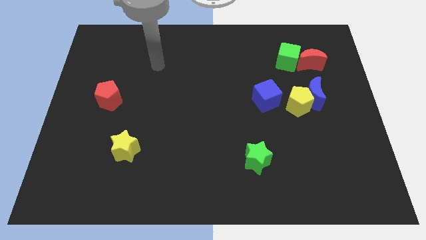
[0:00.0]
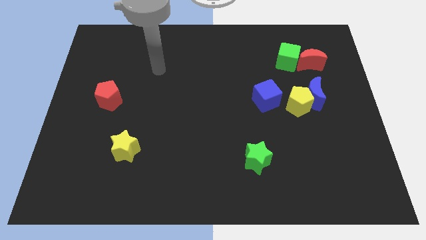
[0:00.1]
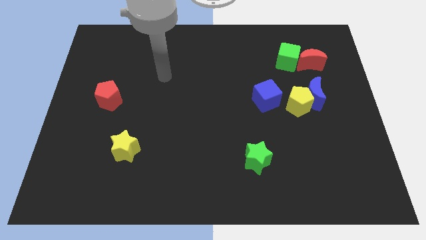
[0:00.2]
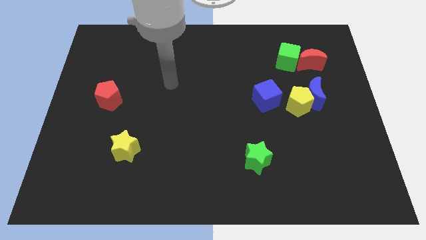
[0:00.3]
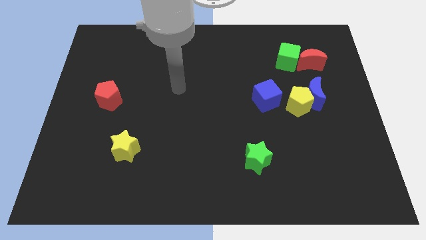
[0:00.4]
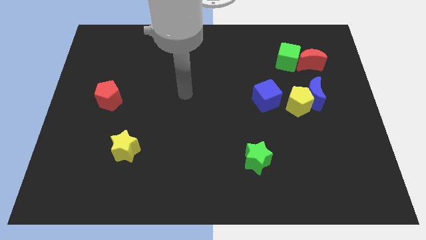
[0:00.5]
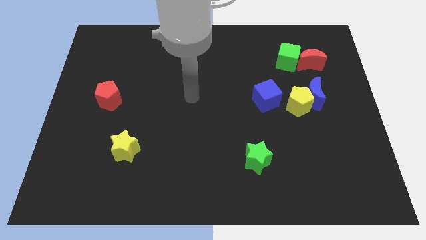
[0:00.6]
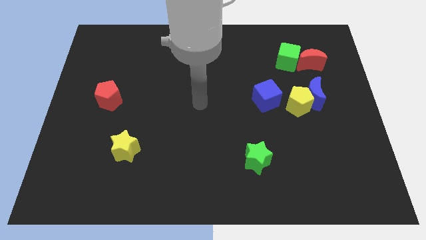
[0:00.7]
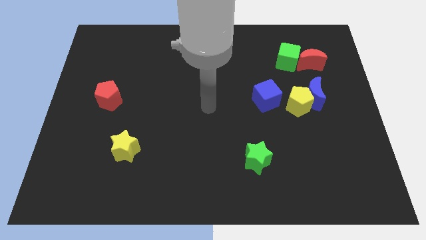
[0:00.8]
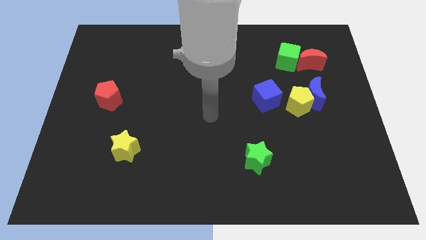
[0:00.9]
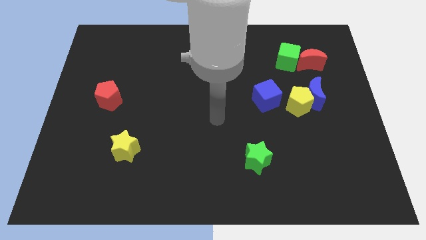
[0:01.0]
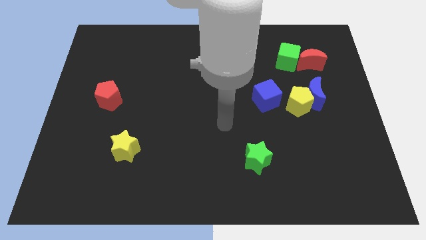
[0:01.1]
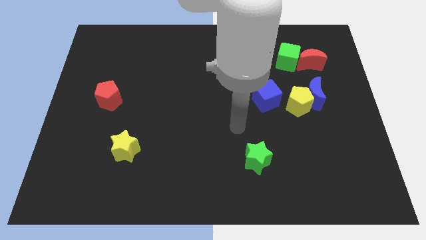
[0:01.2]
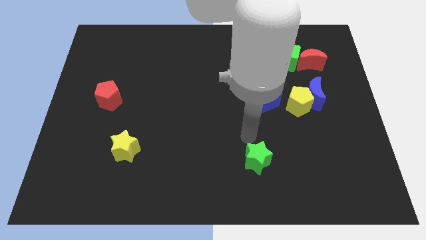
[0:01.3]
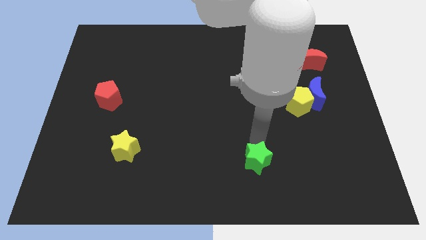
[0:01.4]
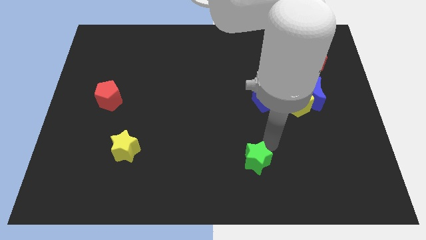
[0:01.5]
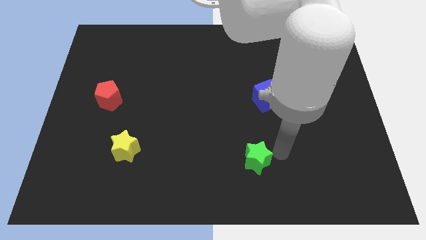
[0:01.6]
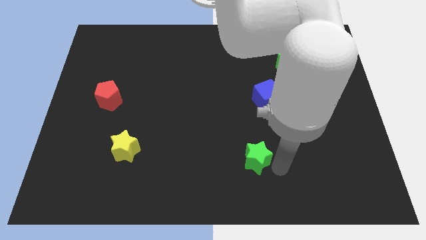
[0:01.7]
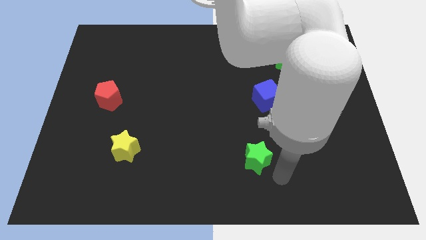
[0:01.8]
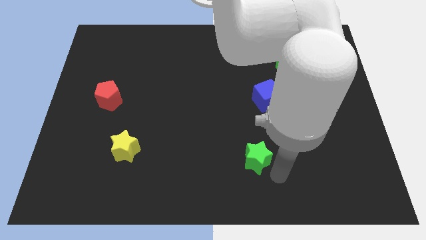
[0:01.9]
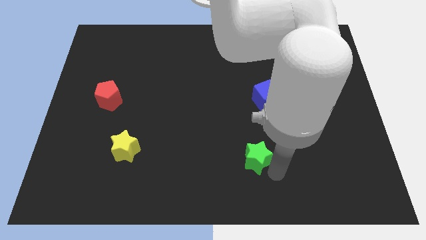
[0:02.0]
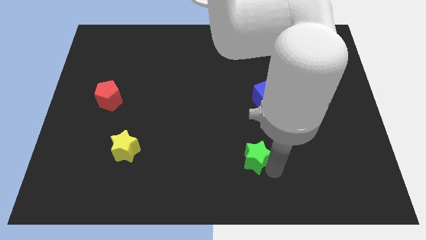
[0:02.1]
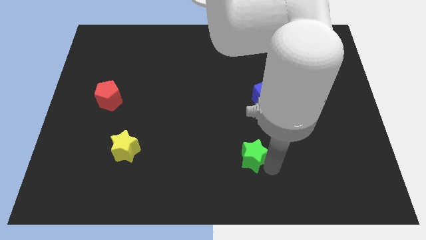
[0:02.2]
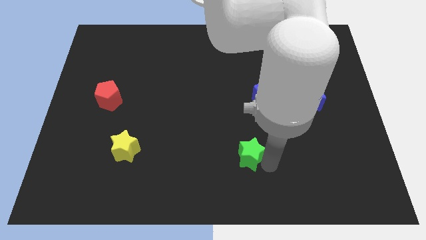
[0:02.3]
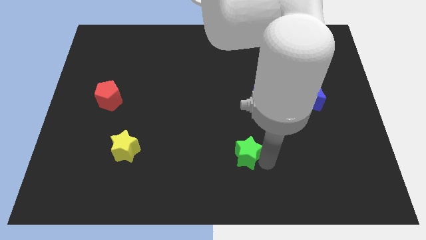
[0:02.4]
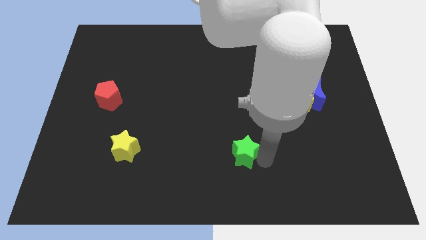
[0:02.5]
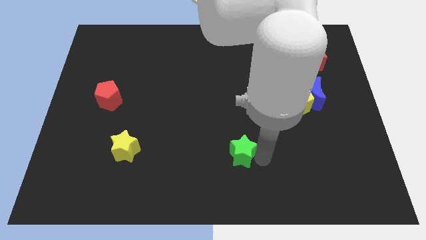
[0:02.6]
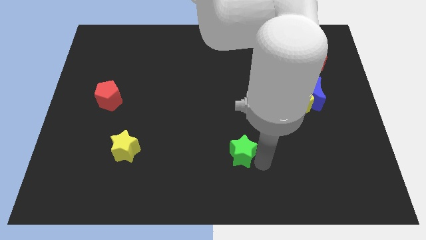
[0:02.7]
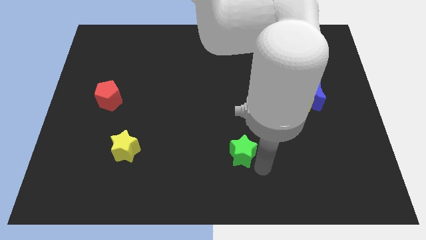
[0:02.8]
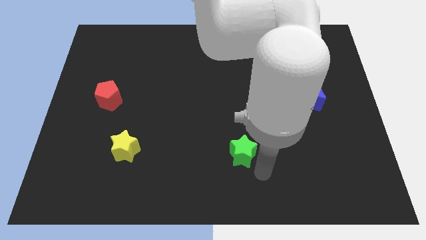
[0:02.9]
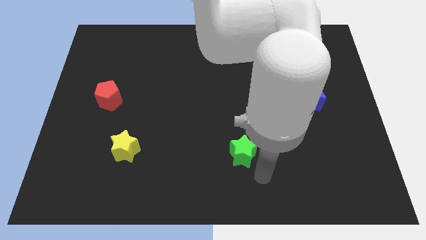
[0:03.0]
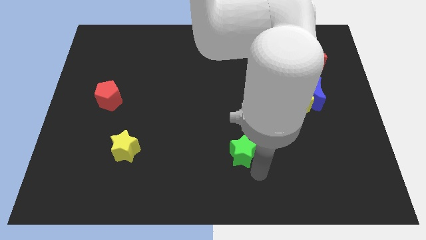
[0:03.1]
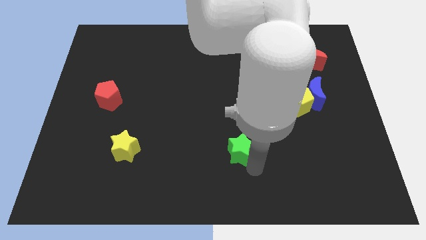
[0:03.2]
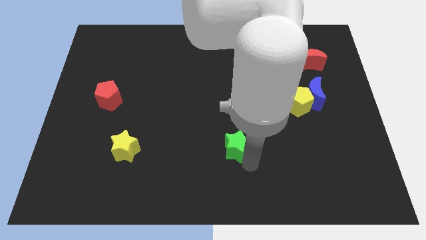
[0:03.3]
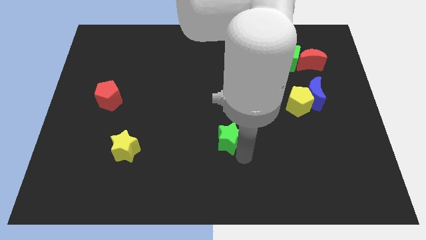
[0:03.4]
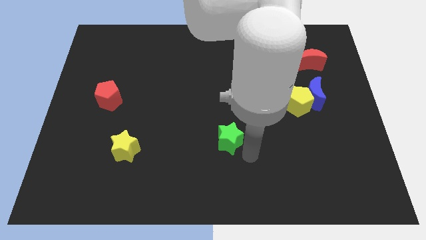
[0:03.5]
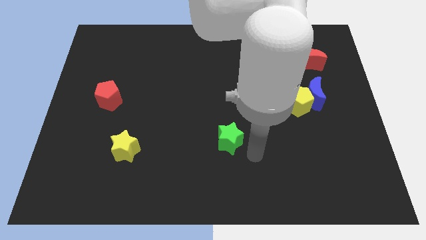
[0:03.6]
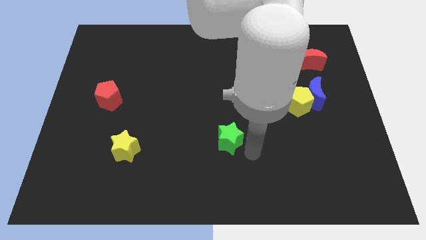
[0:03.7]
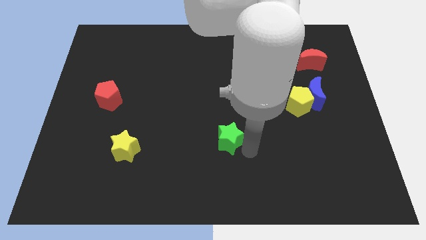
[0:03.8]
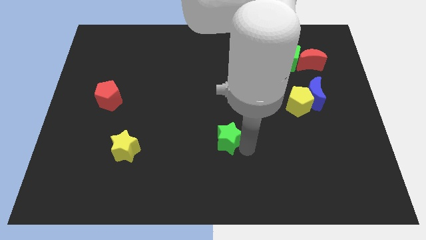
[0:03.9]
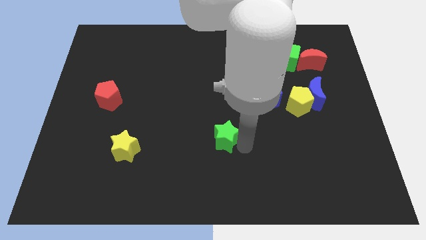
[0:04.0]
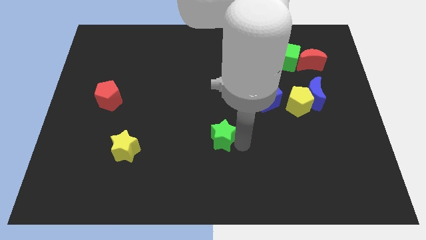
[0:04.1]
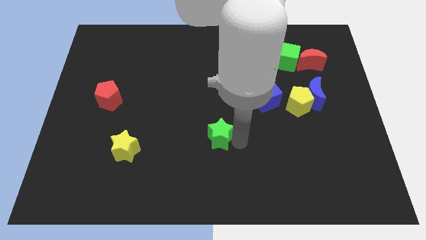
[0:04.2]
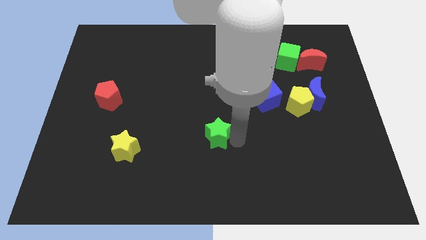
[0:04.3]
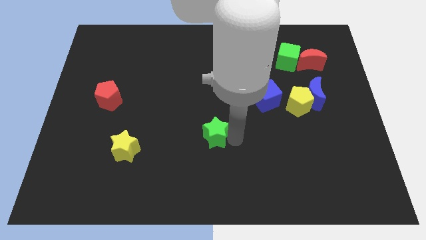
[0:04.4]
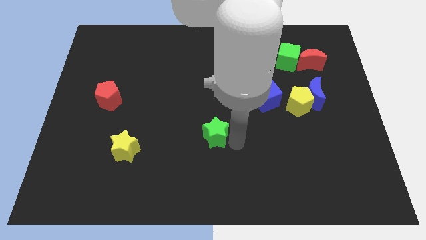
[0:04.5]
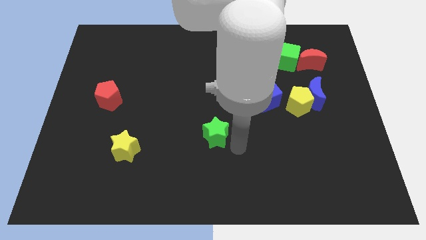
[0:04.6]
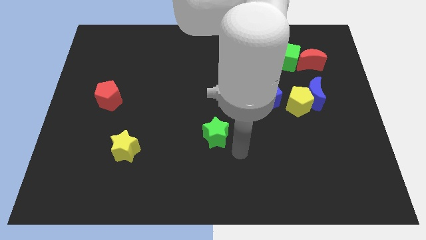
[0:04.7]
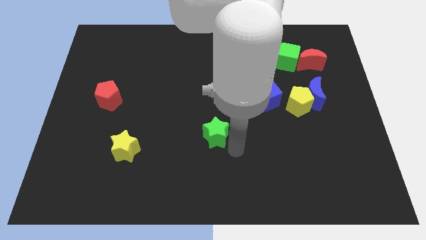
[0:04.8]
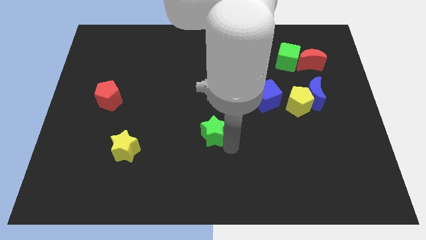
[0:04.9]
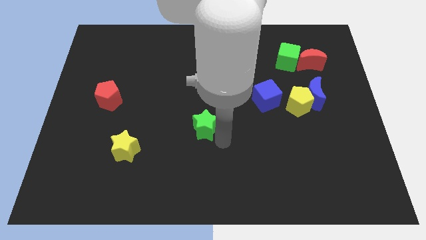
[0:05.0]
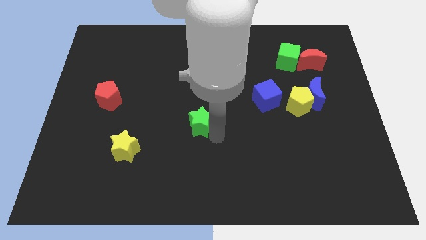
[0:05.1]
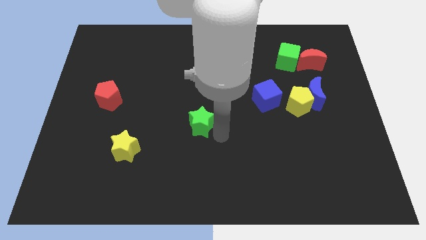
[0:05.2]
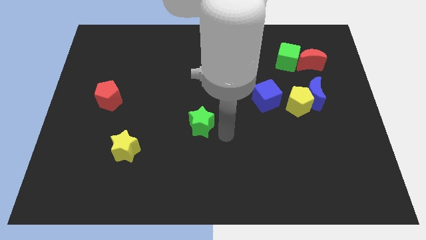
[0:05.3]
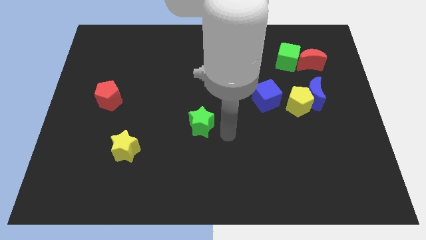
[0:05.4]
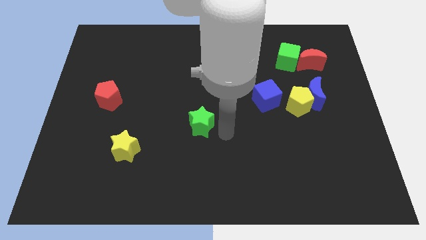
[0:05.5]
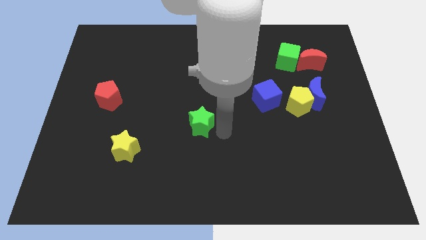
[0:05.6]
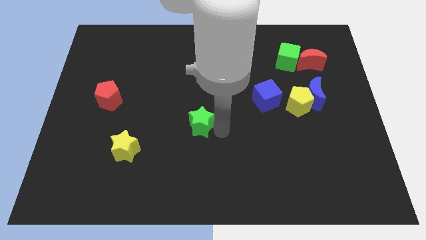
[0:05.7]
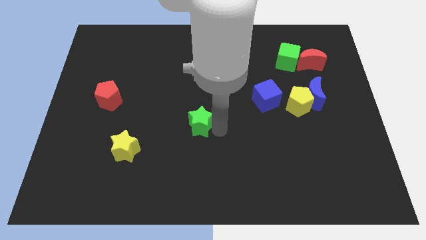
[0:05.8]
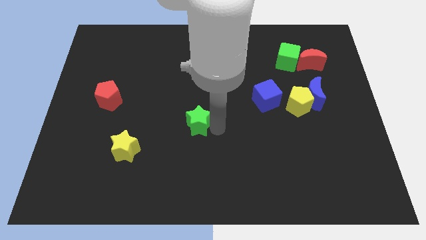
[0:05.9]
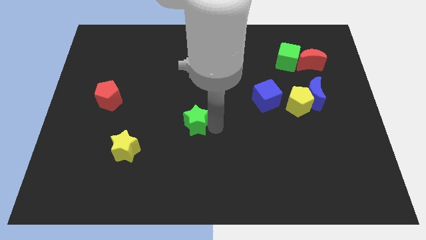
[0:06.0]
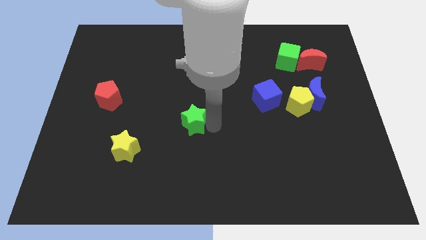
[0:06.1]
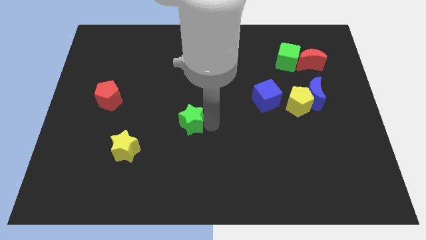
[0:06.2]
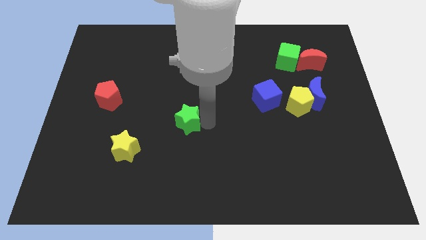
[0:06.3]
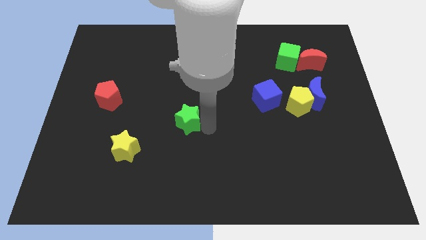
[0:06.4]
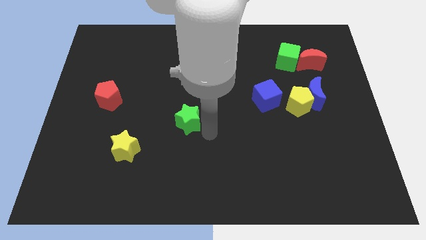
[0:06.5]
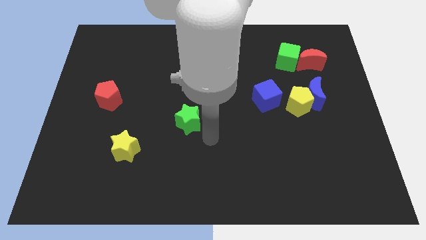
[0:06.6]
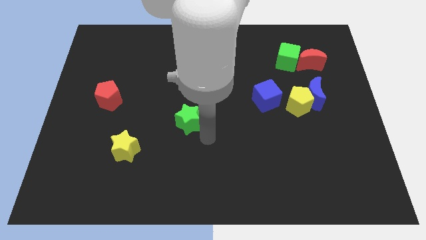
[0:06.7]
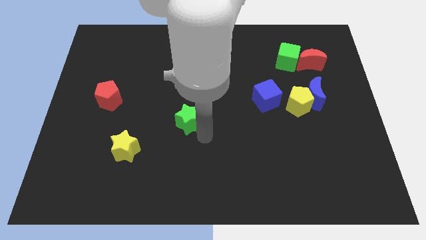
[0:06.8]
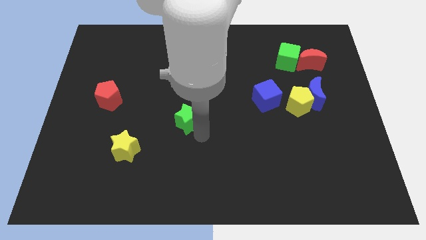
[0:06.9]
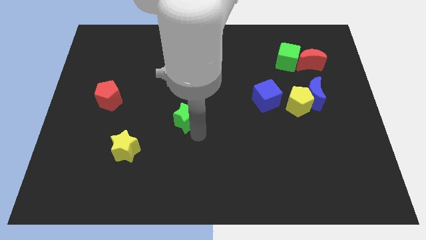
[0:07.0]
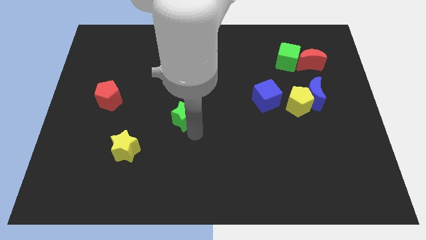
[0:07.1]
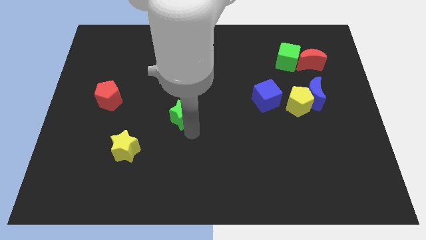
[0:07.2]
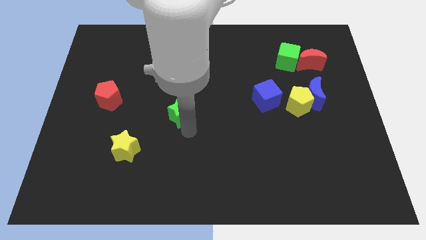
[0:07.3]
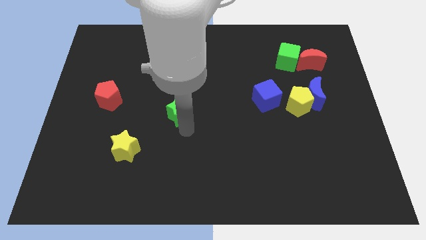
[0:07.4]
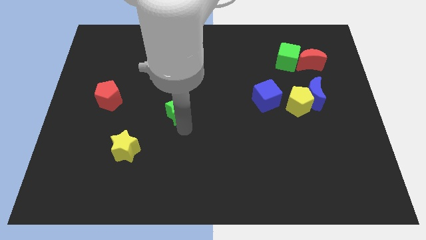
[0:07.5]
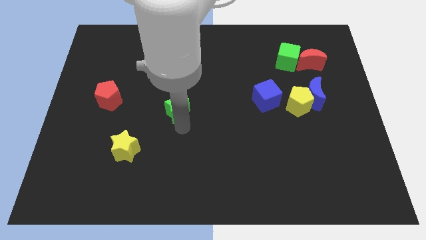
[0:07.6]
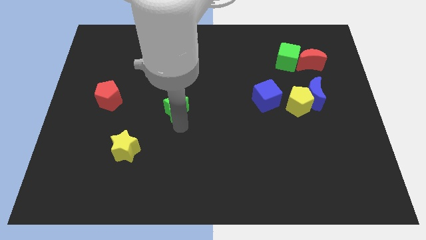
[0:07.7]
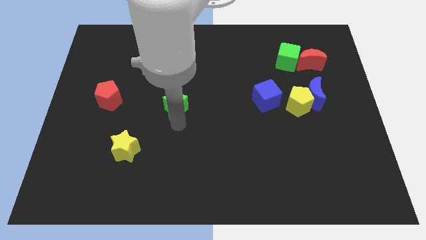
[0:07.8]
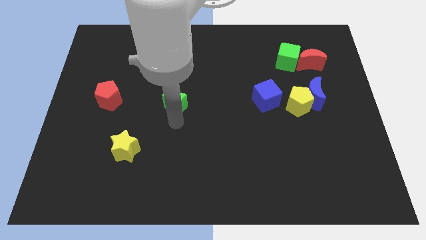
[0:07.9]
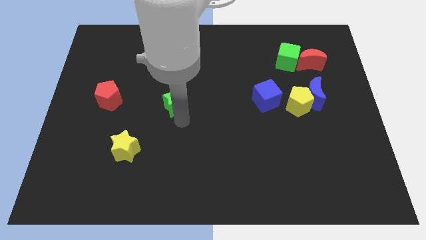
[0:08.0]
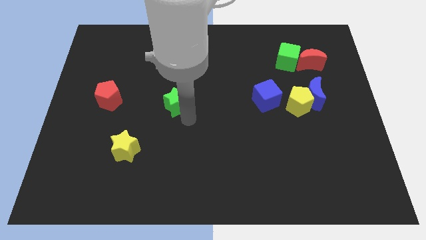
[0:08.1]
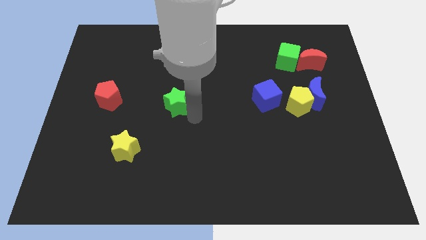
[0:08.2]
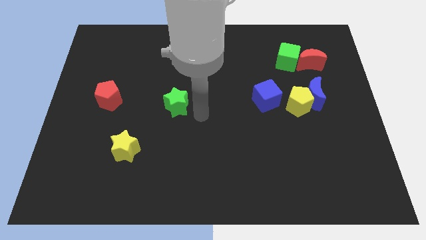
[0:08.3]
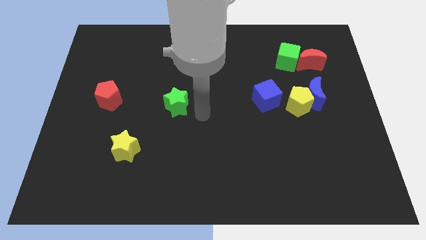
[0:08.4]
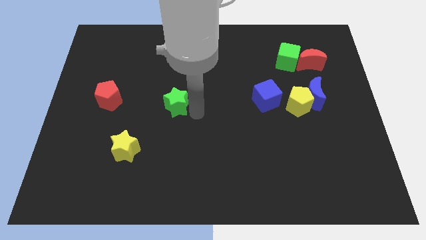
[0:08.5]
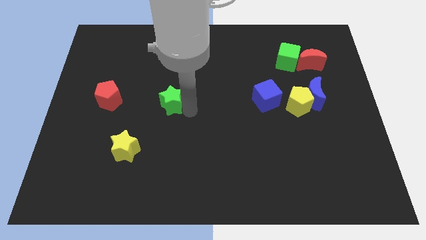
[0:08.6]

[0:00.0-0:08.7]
move the green star to the right of the red pentagon
